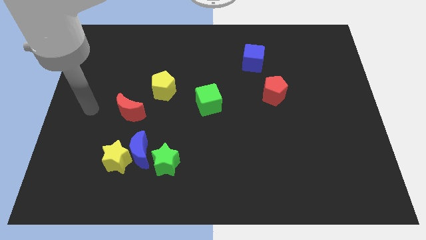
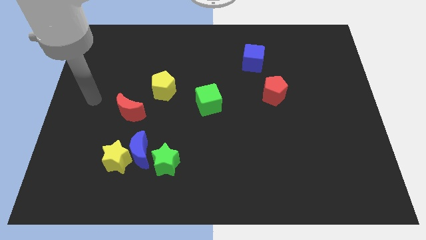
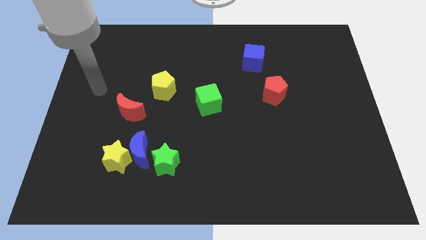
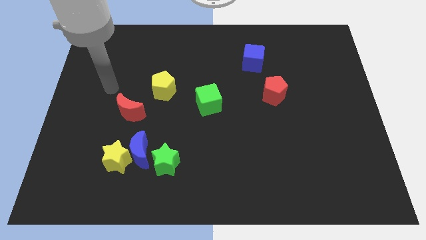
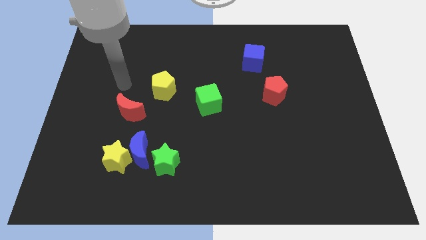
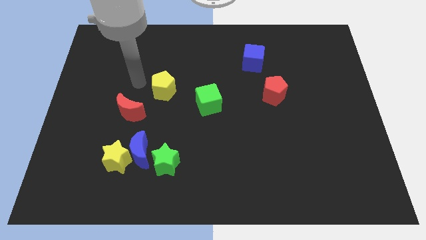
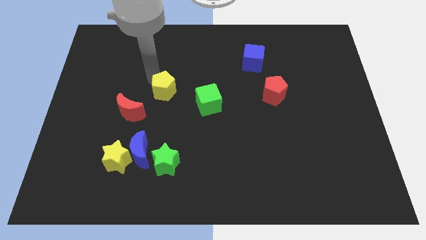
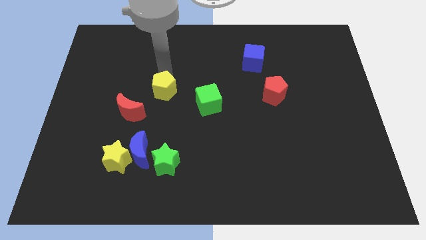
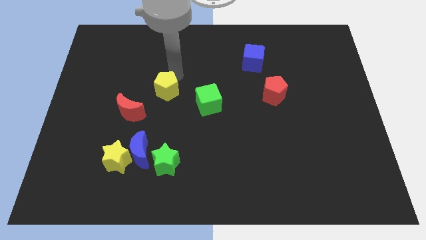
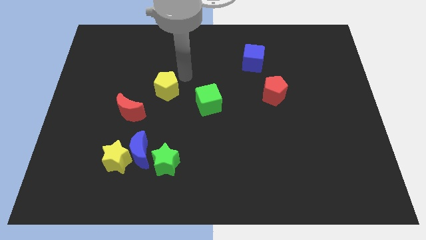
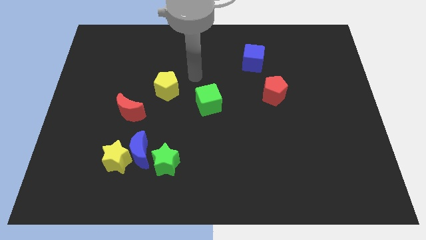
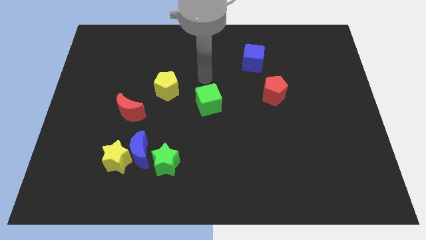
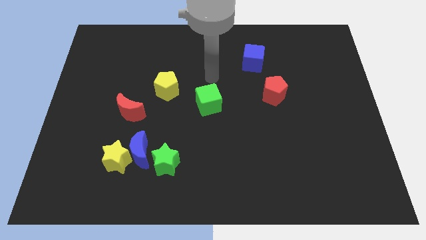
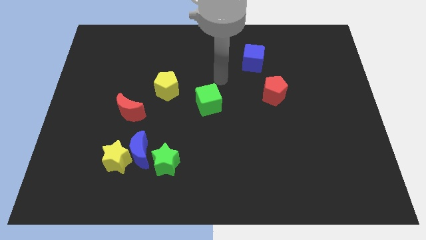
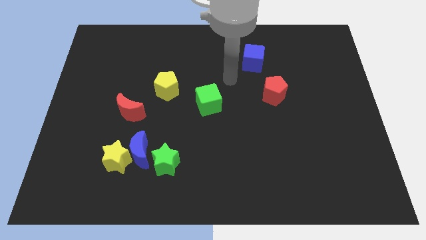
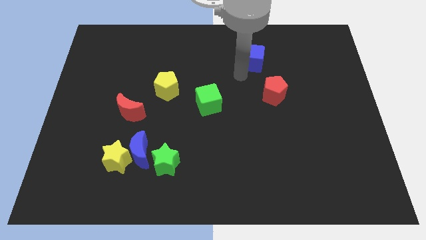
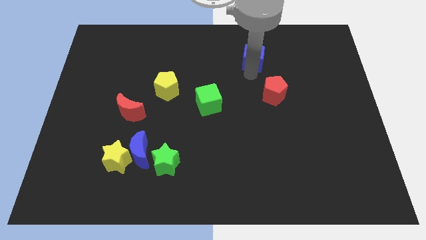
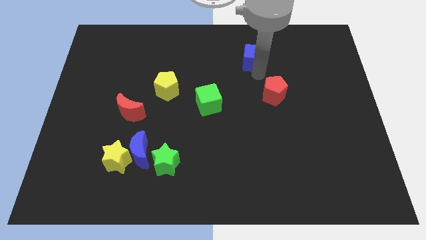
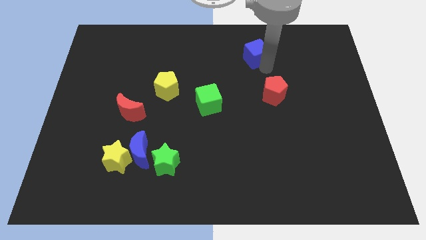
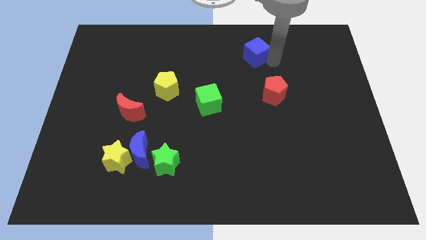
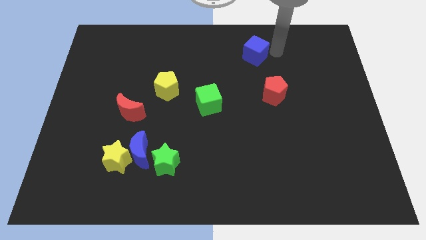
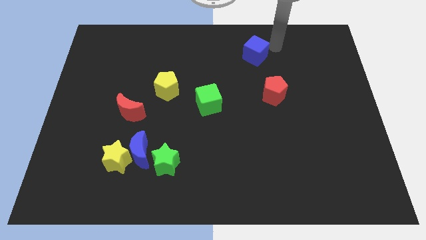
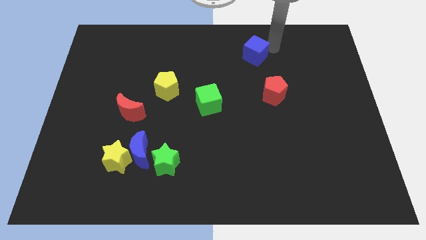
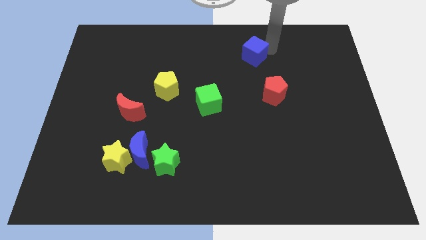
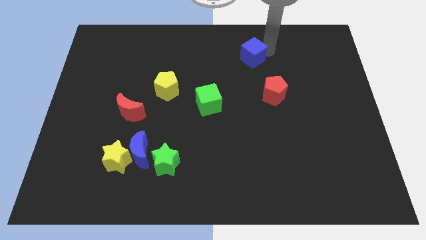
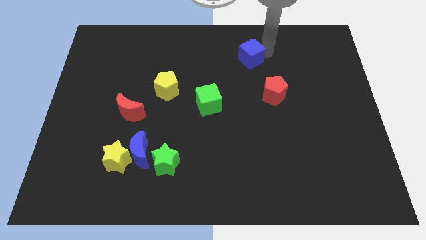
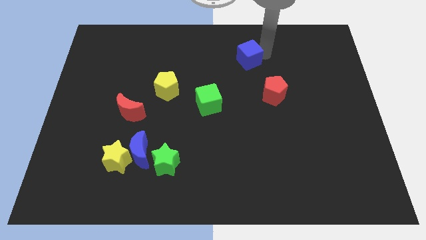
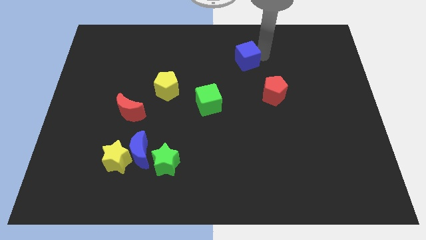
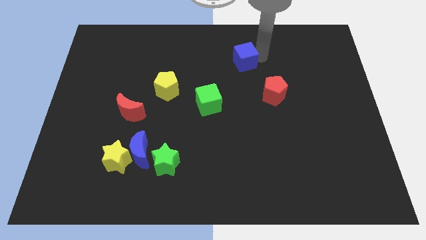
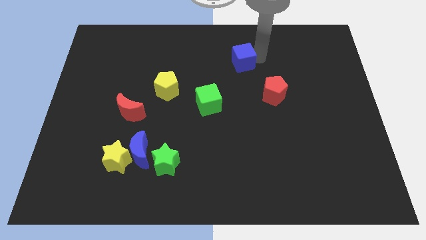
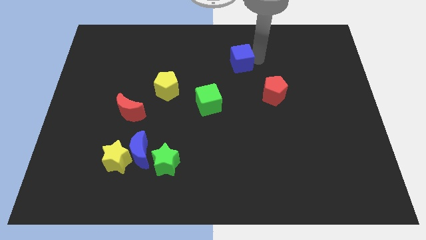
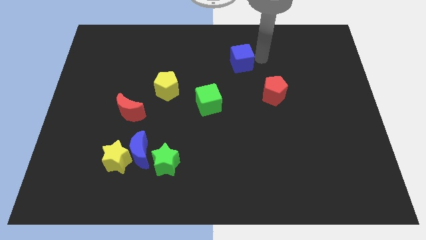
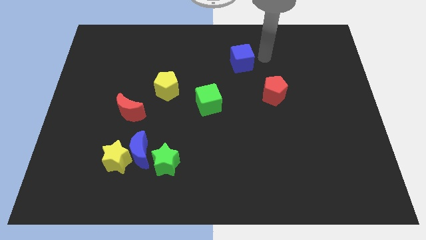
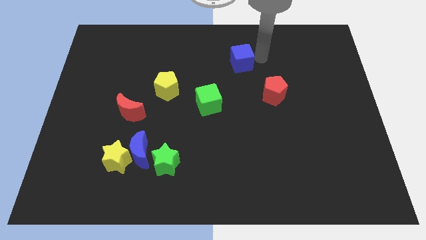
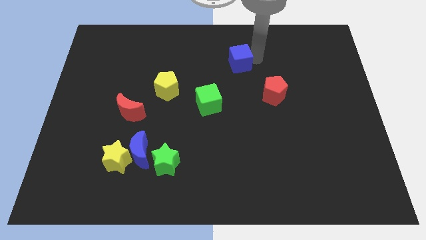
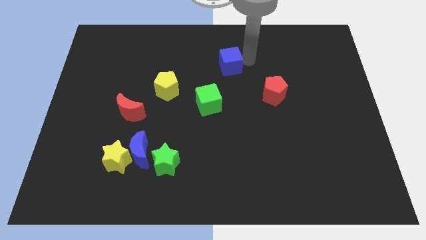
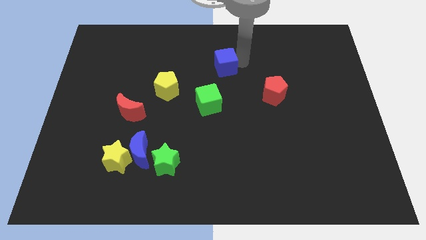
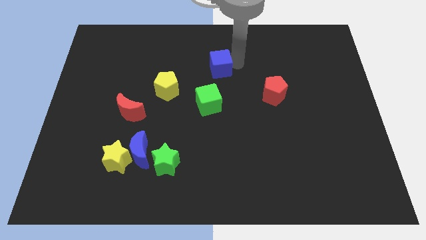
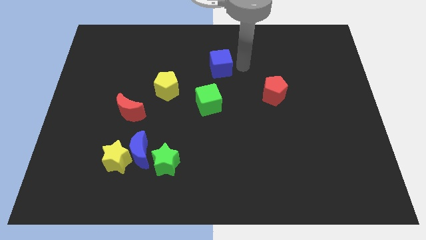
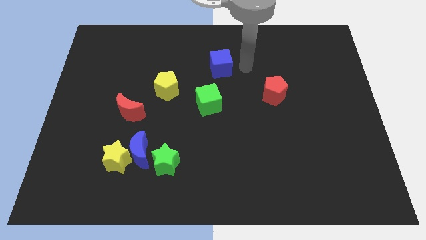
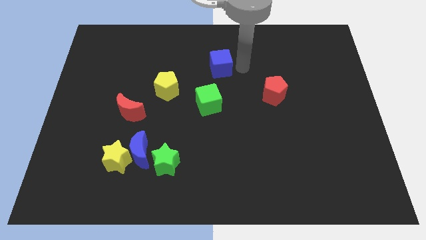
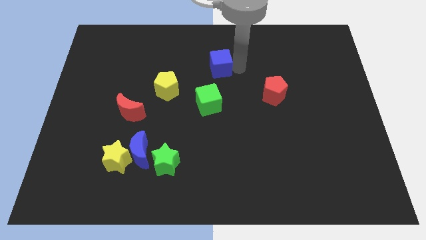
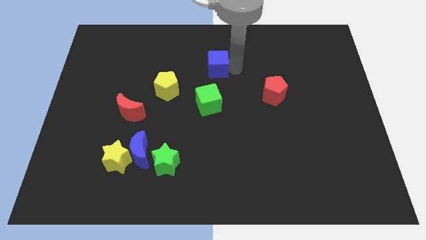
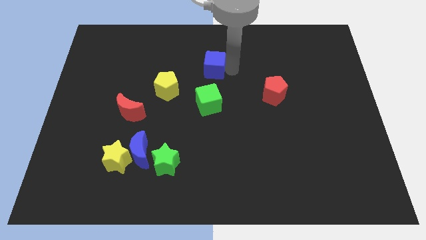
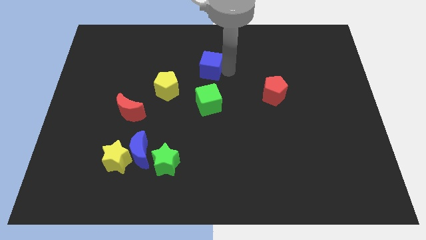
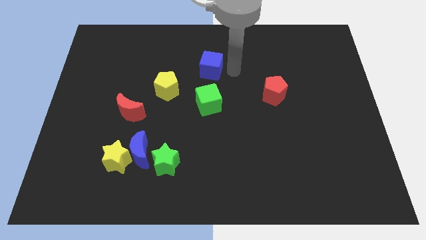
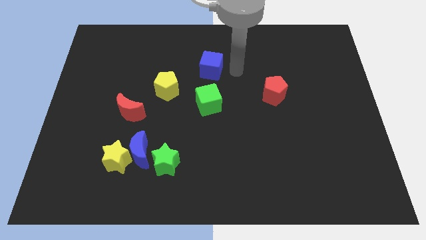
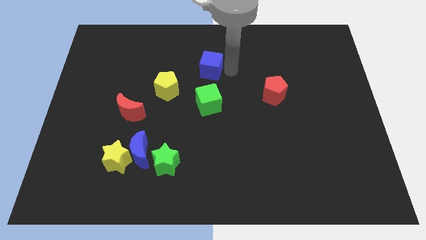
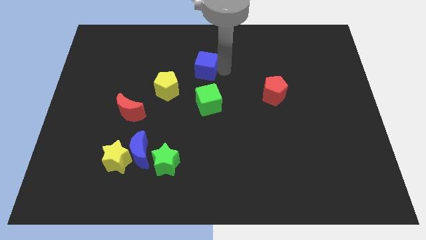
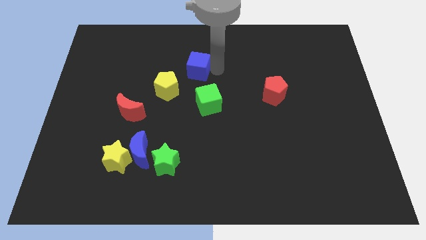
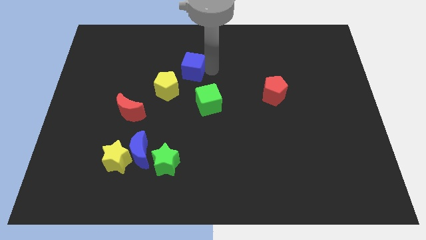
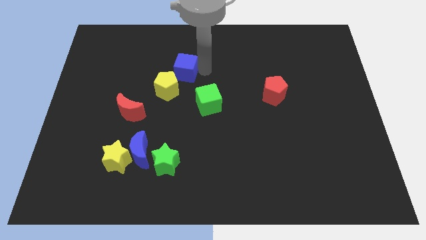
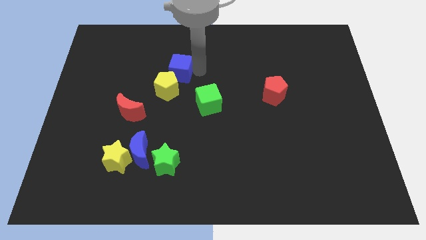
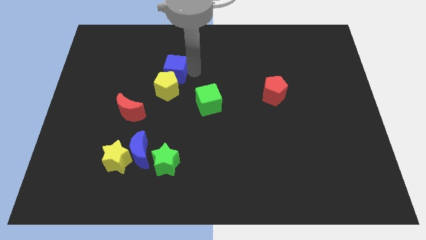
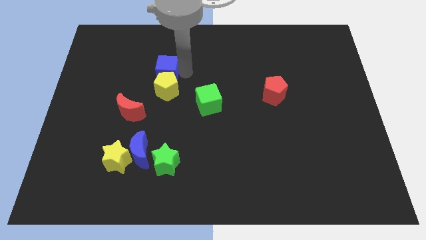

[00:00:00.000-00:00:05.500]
push the blue cube left

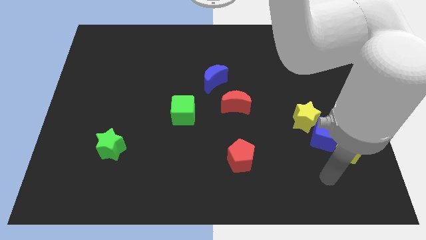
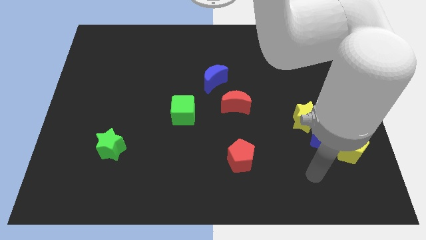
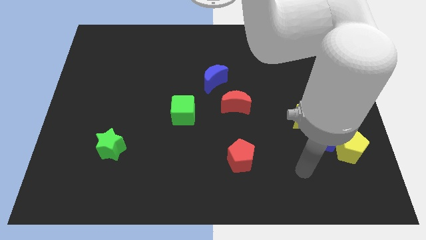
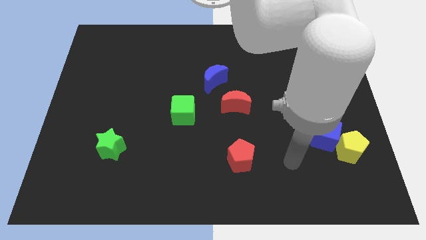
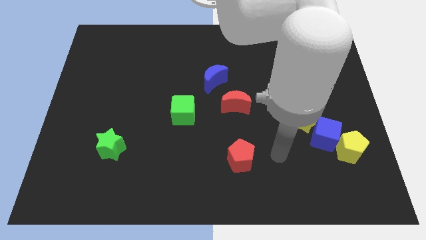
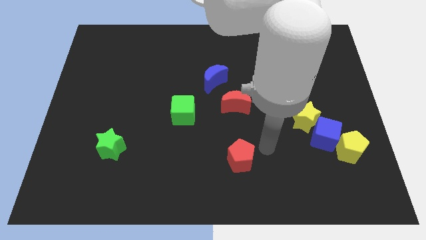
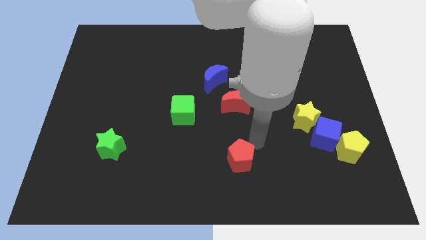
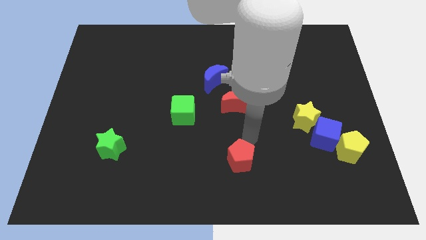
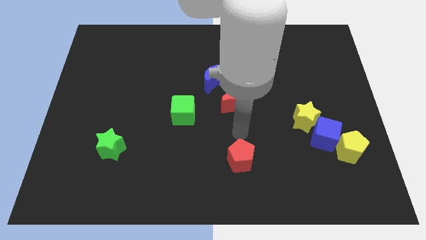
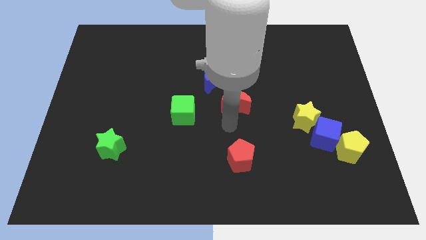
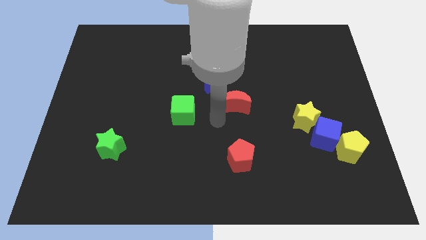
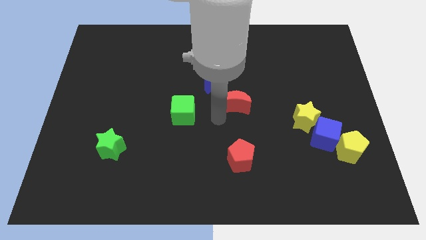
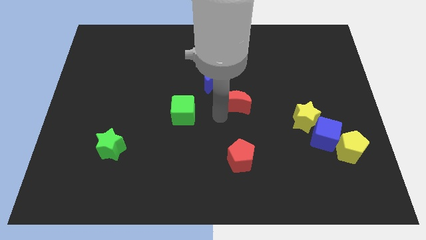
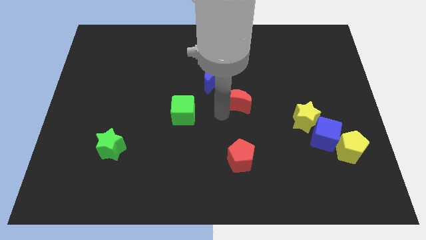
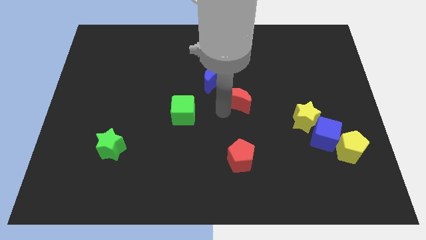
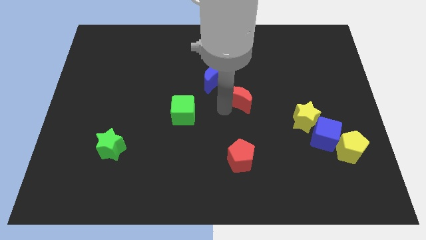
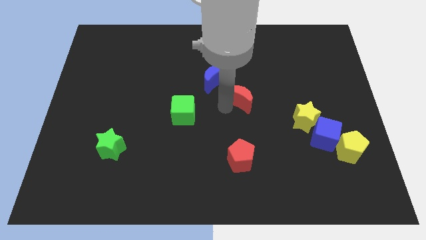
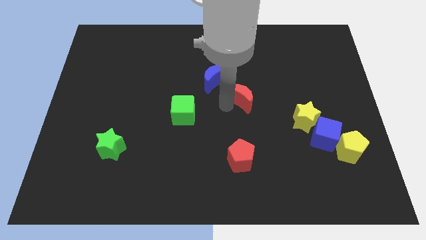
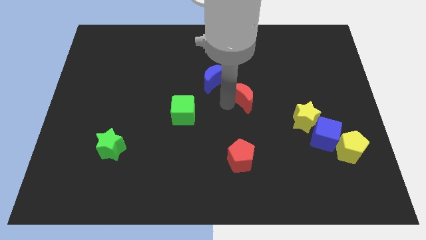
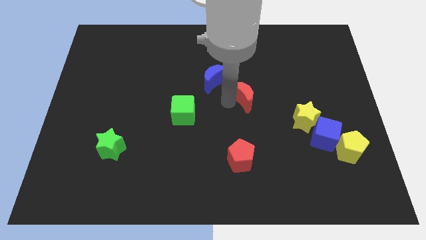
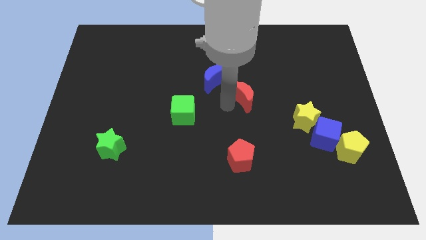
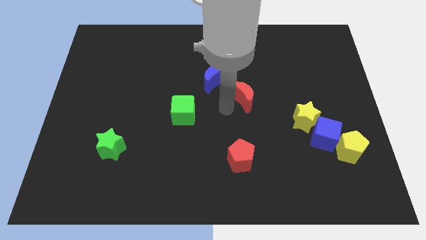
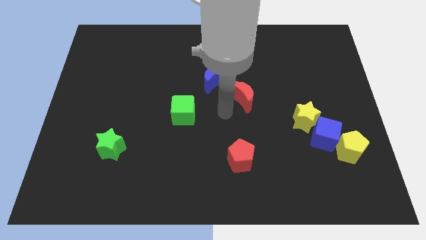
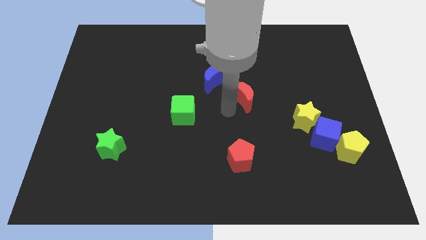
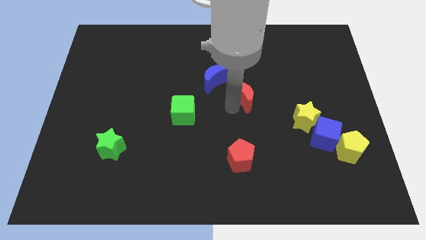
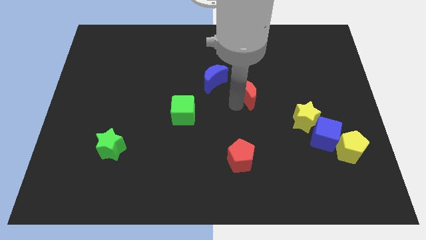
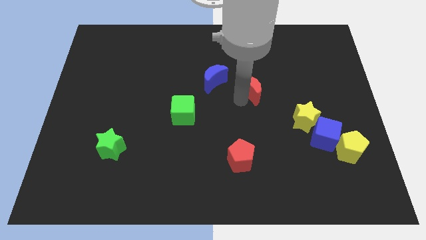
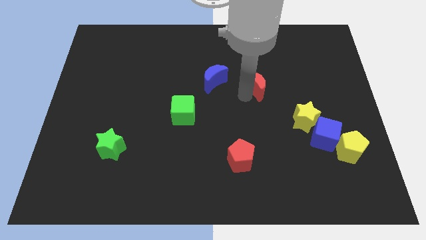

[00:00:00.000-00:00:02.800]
move the red moon diagonally up and right somewhat
